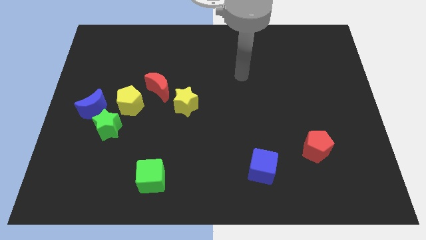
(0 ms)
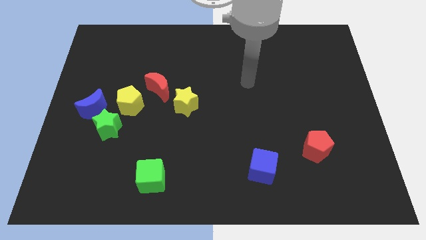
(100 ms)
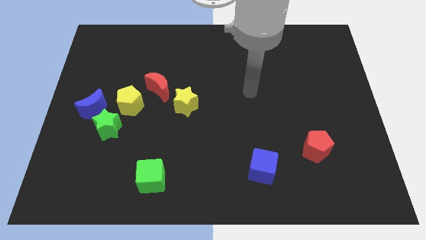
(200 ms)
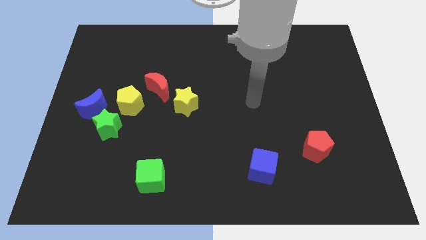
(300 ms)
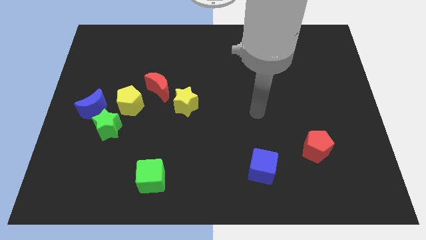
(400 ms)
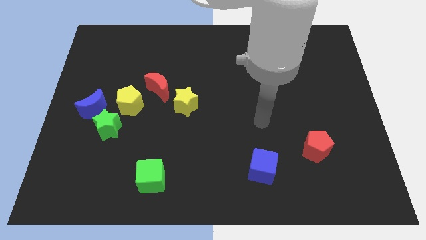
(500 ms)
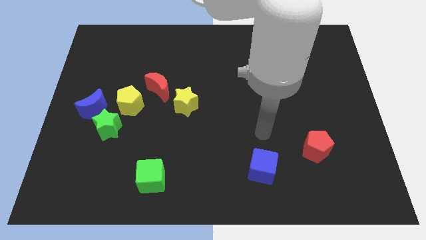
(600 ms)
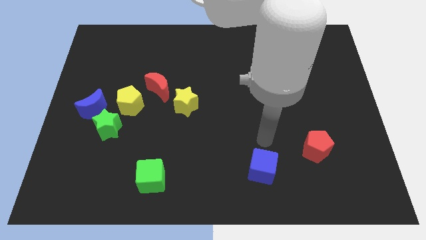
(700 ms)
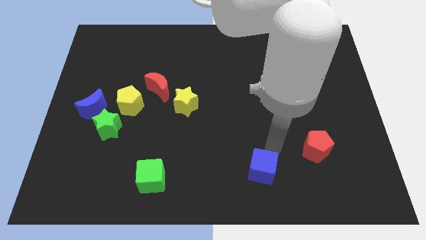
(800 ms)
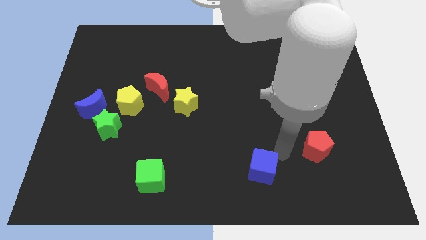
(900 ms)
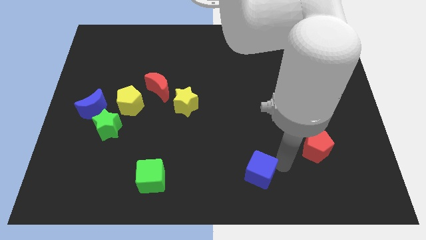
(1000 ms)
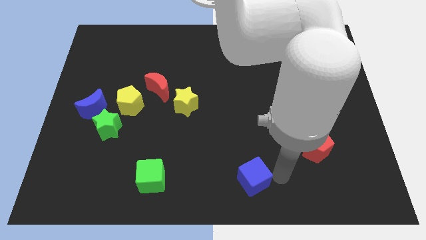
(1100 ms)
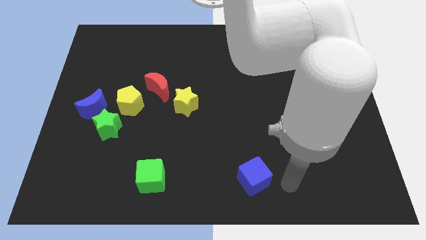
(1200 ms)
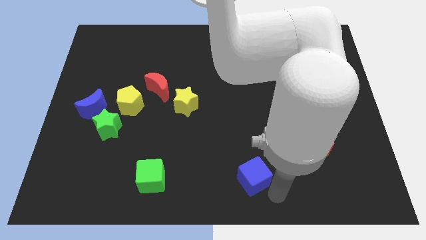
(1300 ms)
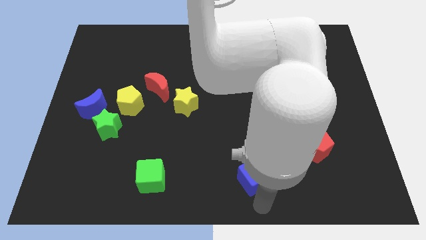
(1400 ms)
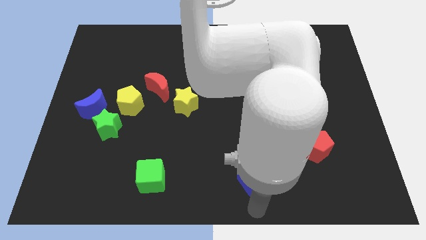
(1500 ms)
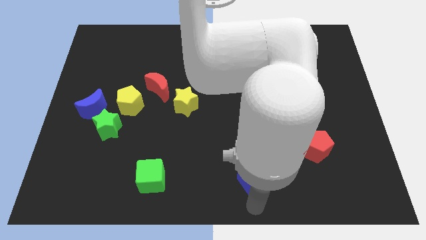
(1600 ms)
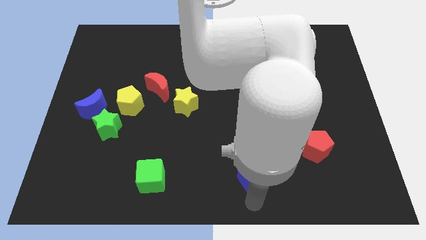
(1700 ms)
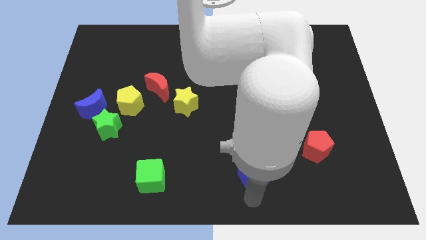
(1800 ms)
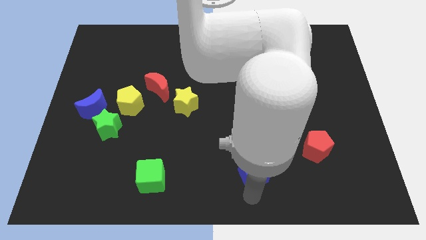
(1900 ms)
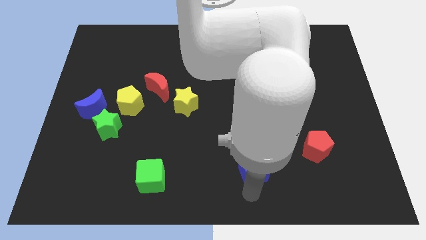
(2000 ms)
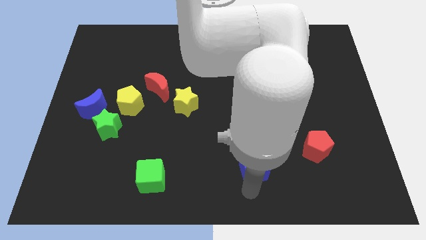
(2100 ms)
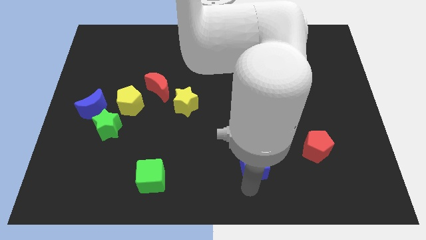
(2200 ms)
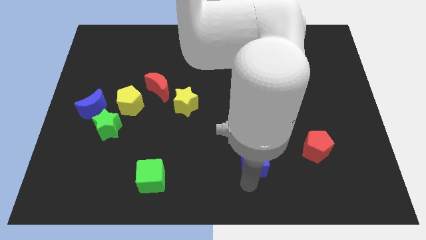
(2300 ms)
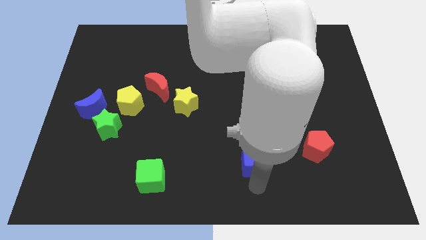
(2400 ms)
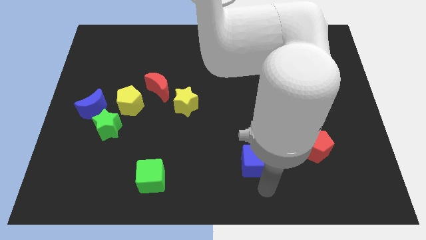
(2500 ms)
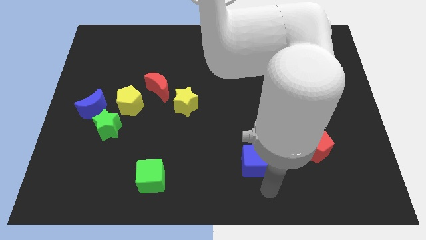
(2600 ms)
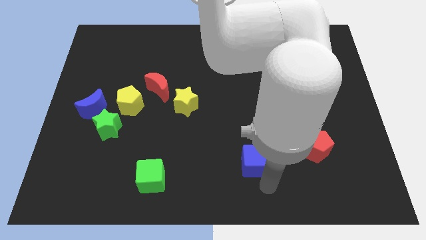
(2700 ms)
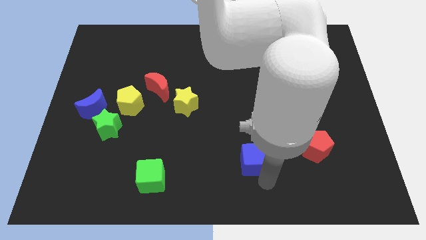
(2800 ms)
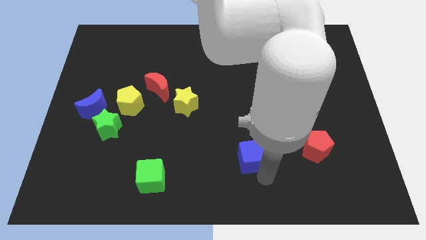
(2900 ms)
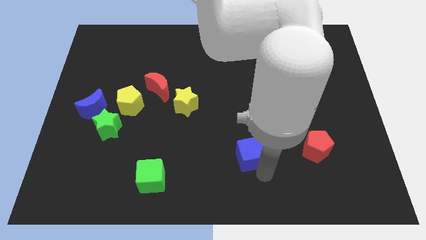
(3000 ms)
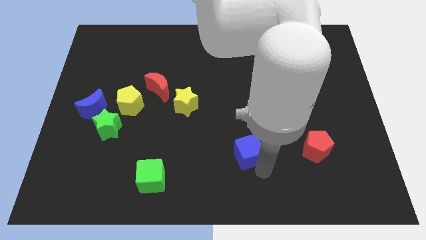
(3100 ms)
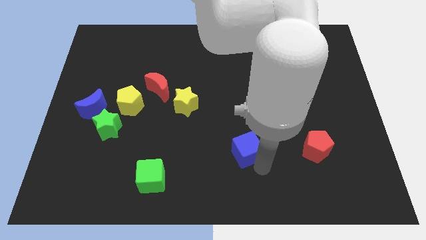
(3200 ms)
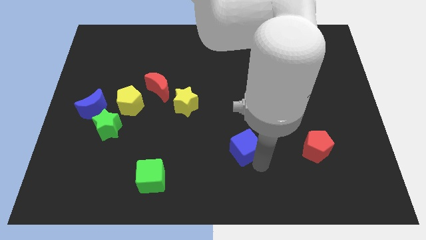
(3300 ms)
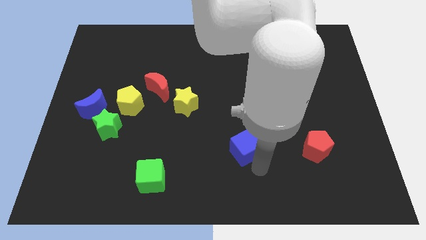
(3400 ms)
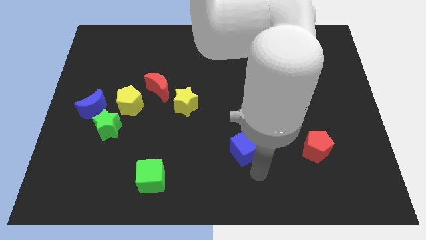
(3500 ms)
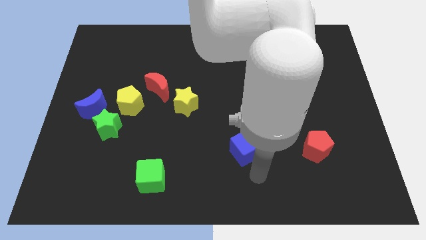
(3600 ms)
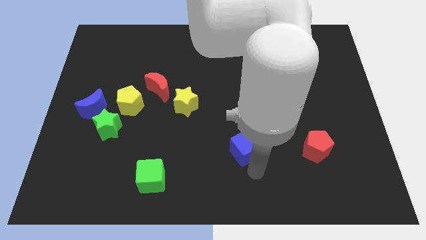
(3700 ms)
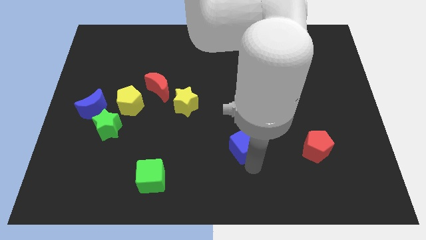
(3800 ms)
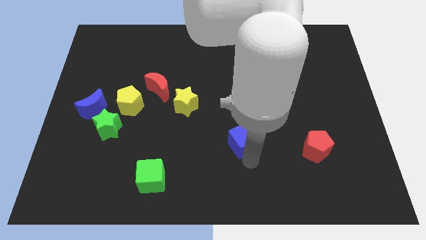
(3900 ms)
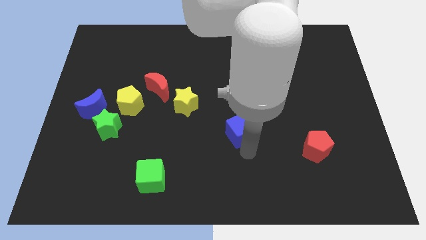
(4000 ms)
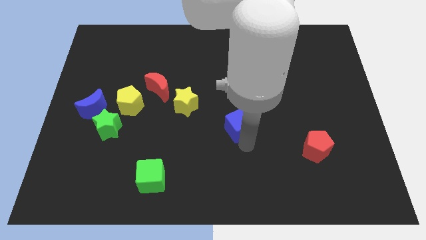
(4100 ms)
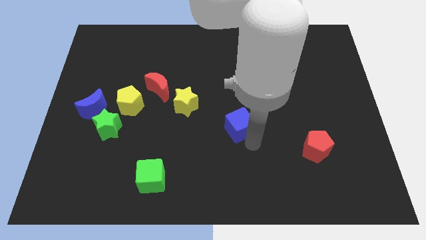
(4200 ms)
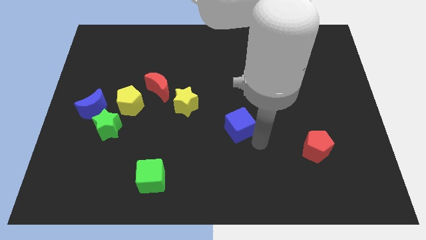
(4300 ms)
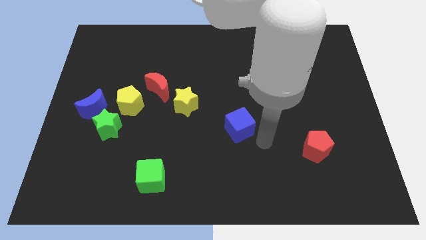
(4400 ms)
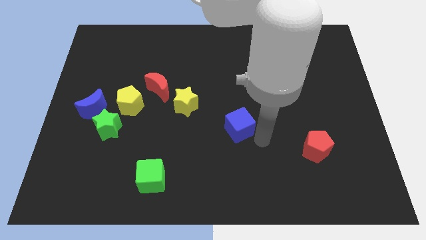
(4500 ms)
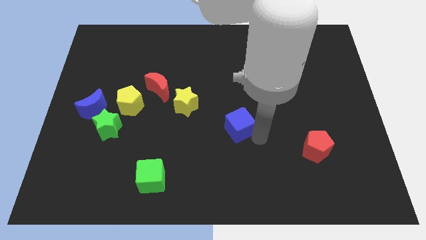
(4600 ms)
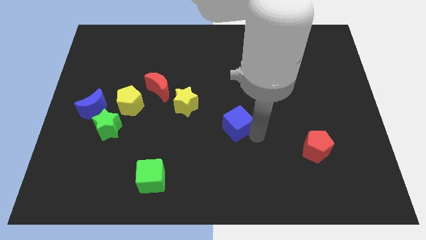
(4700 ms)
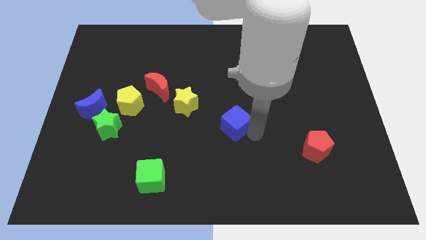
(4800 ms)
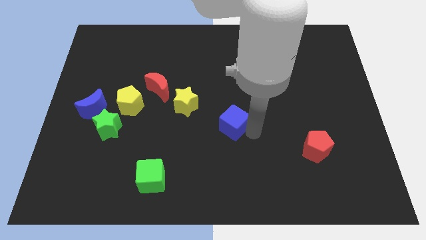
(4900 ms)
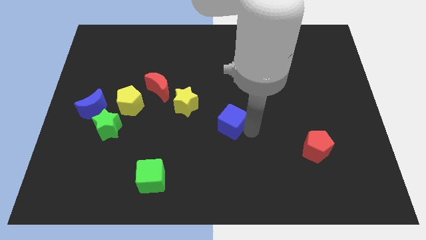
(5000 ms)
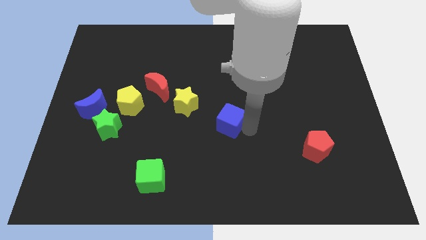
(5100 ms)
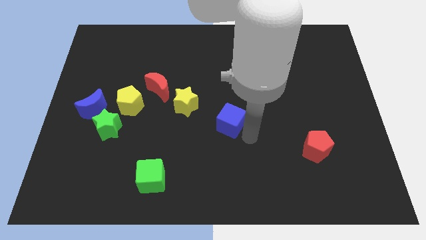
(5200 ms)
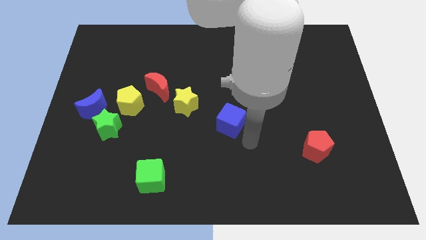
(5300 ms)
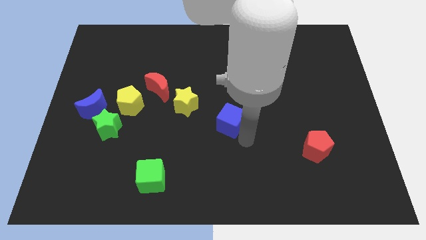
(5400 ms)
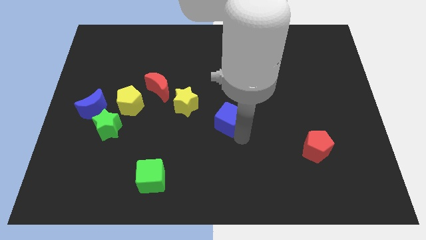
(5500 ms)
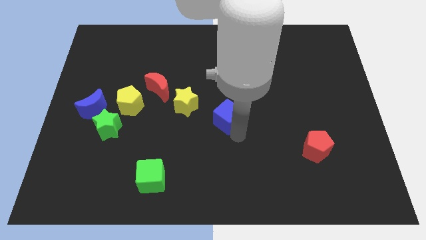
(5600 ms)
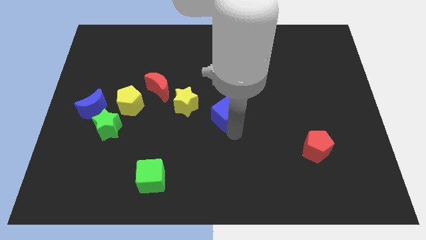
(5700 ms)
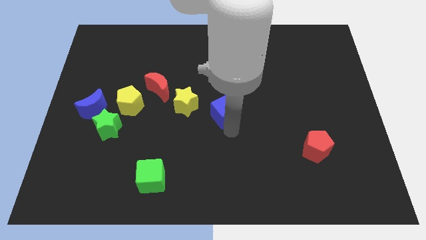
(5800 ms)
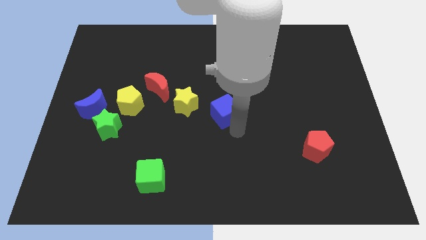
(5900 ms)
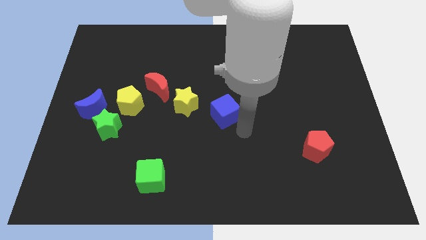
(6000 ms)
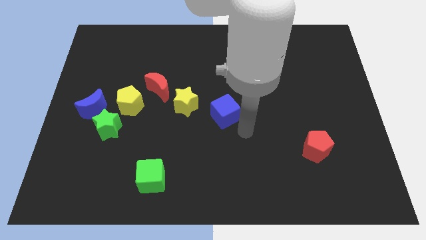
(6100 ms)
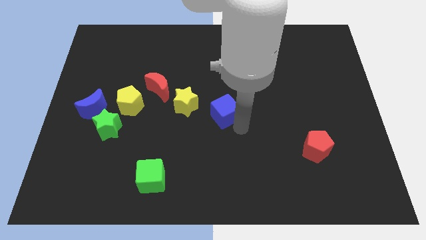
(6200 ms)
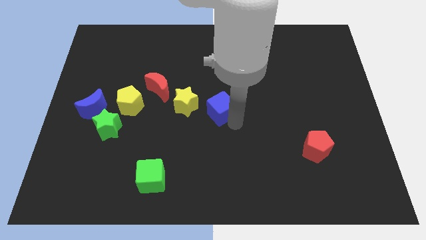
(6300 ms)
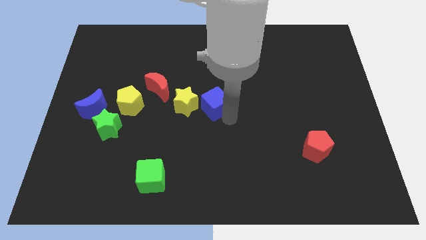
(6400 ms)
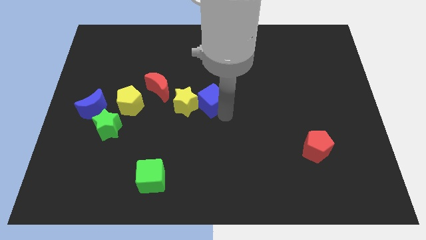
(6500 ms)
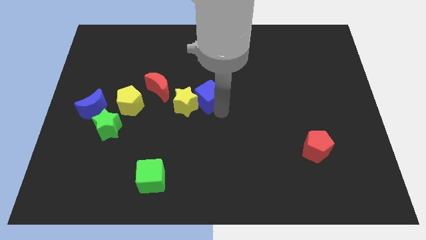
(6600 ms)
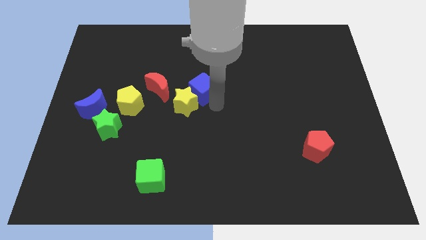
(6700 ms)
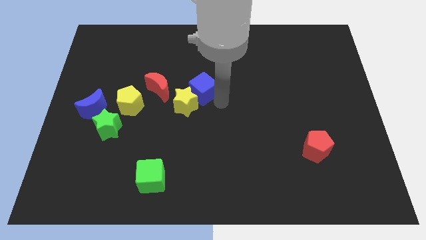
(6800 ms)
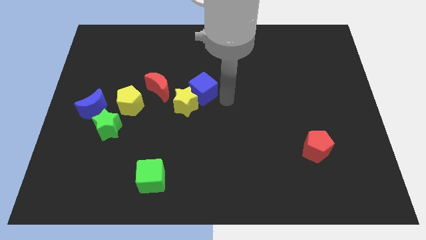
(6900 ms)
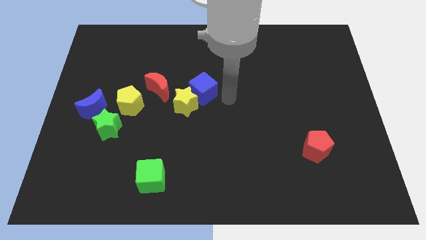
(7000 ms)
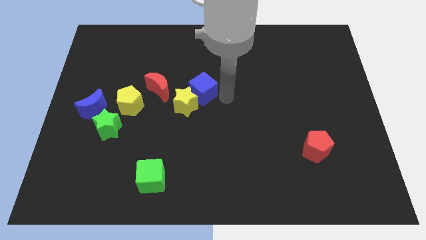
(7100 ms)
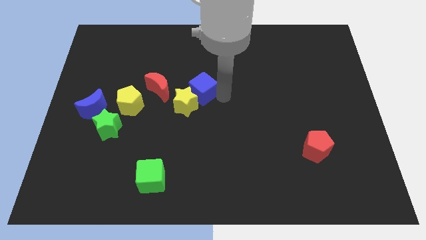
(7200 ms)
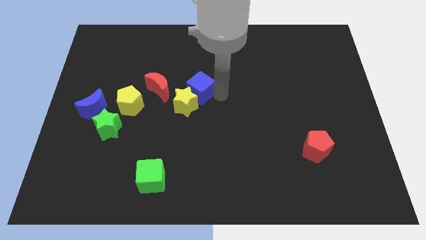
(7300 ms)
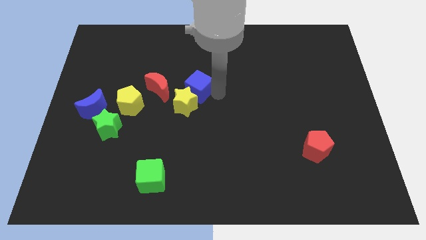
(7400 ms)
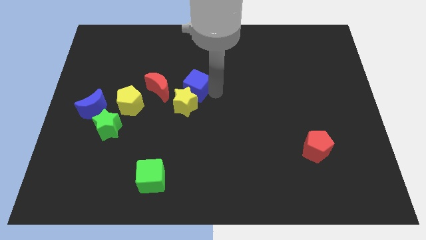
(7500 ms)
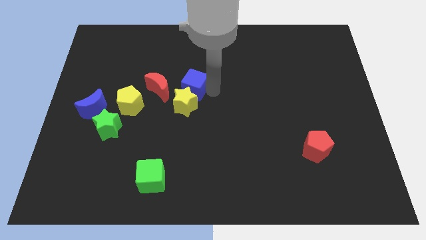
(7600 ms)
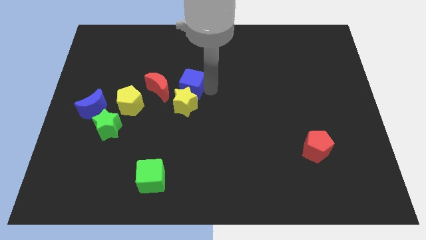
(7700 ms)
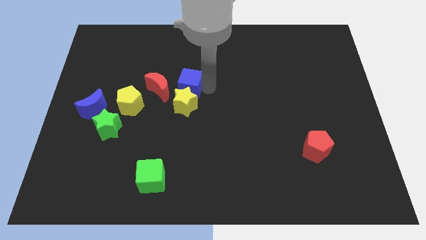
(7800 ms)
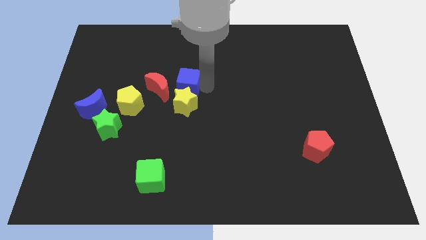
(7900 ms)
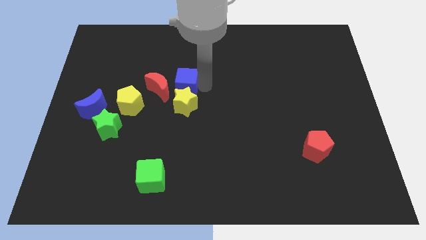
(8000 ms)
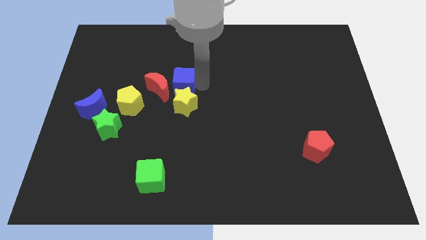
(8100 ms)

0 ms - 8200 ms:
slide the blue cube towards the red moon
